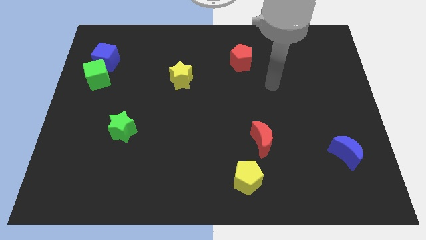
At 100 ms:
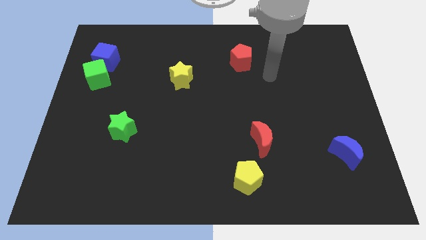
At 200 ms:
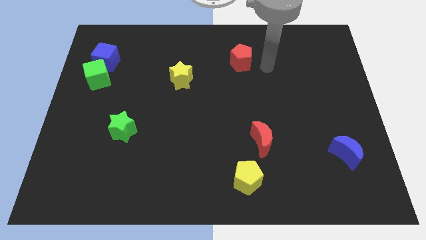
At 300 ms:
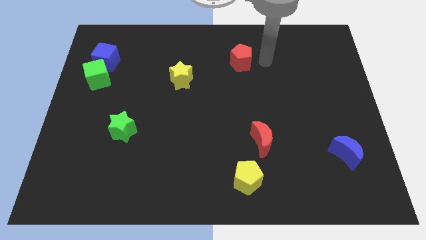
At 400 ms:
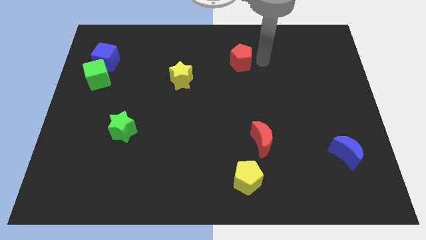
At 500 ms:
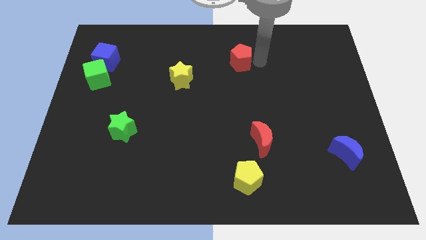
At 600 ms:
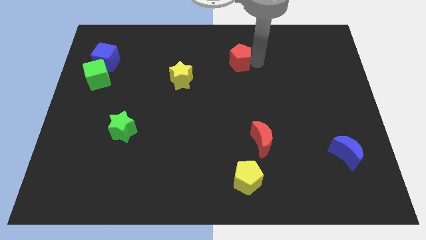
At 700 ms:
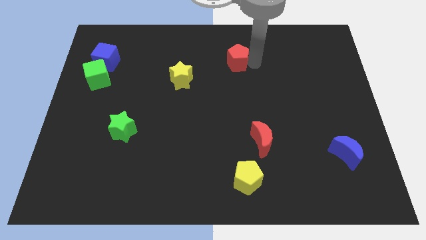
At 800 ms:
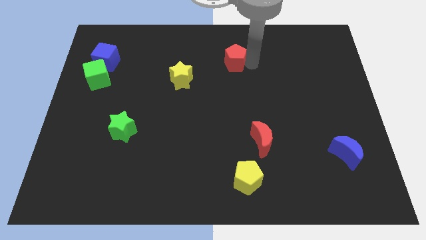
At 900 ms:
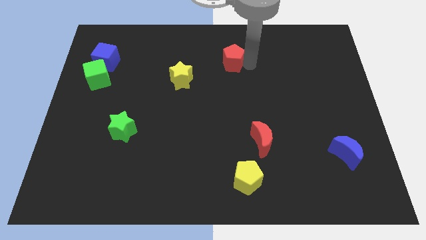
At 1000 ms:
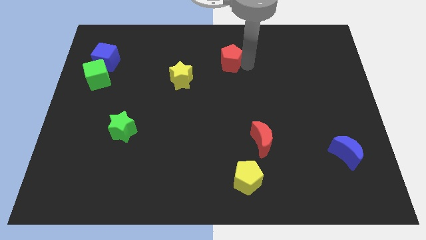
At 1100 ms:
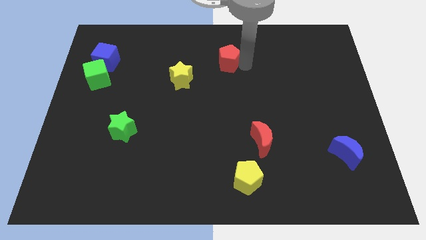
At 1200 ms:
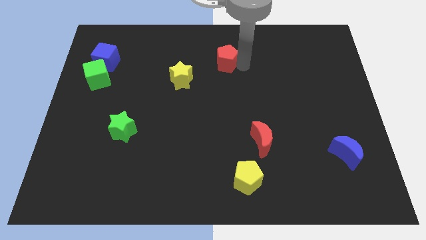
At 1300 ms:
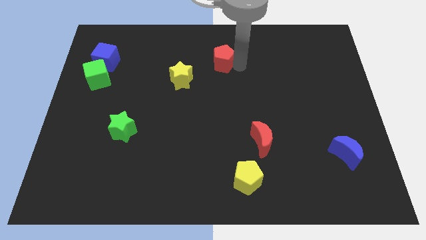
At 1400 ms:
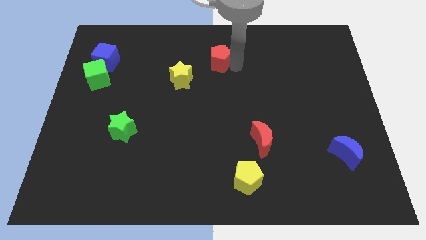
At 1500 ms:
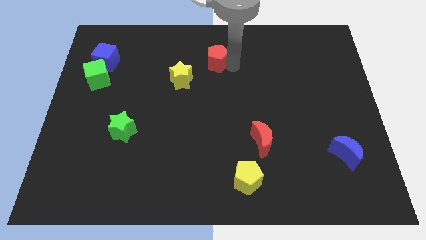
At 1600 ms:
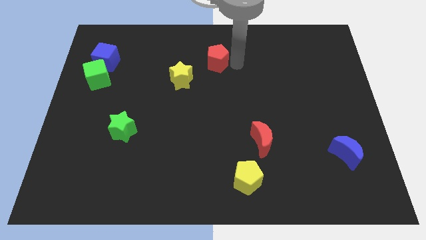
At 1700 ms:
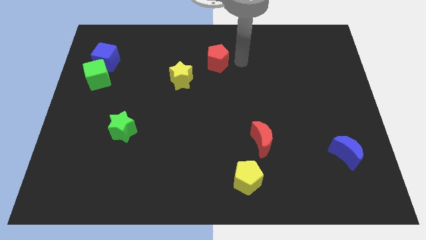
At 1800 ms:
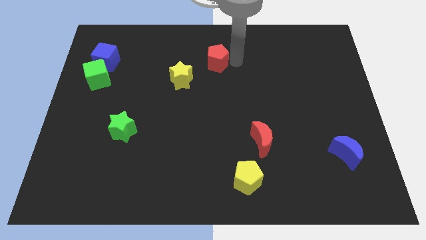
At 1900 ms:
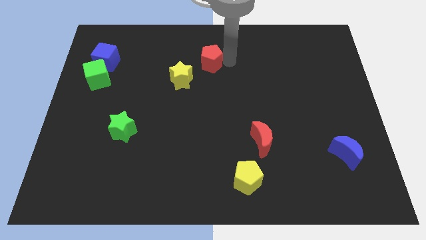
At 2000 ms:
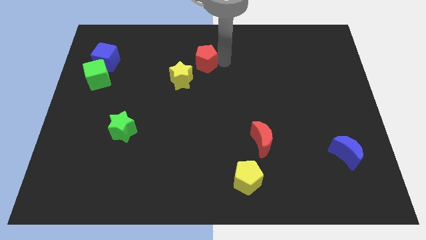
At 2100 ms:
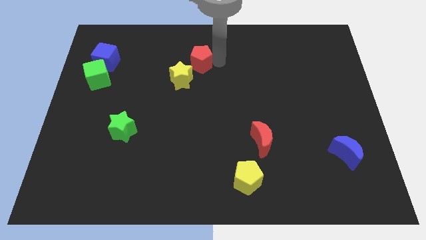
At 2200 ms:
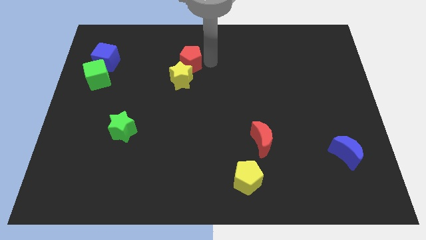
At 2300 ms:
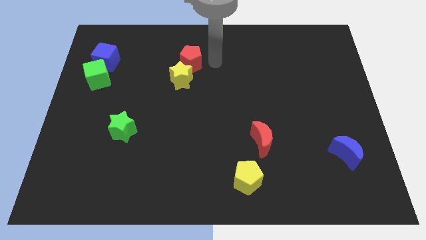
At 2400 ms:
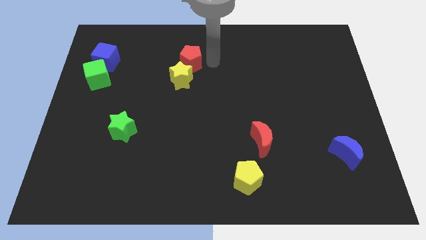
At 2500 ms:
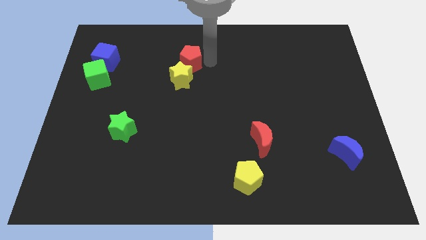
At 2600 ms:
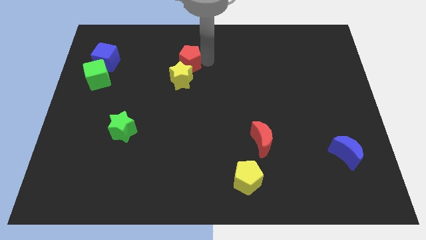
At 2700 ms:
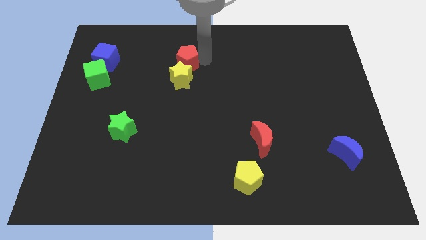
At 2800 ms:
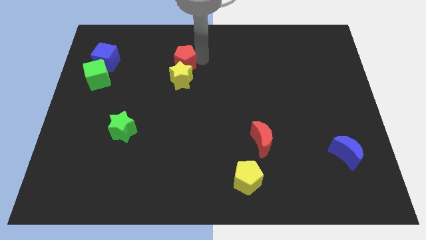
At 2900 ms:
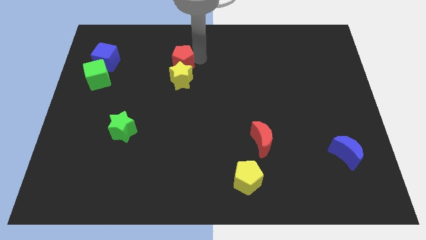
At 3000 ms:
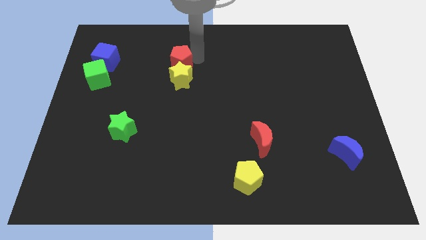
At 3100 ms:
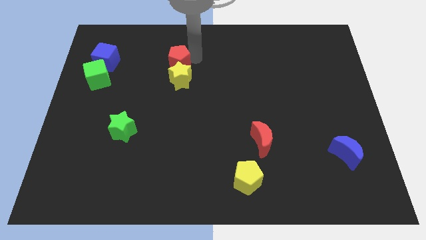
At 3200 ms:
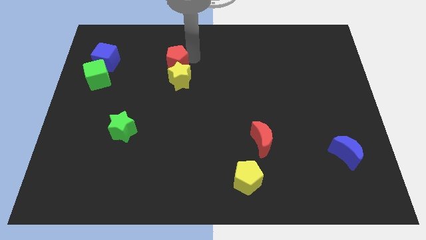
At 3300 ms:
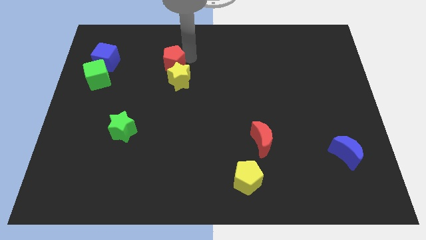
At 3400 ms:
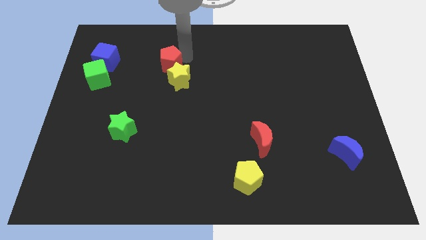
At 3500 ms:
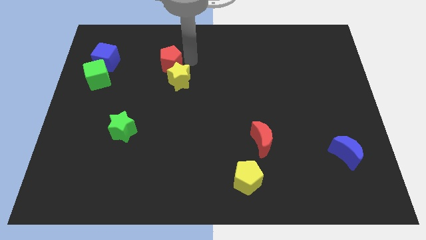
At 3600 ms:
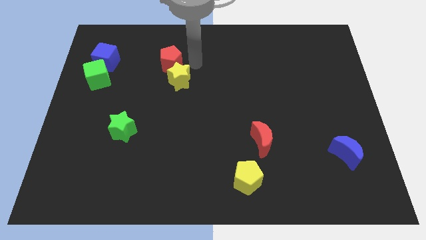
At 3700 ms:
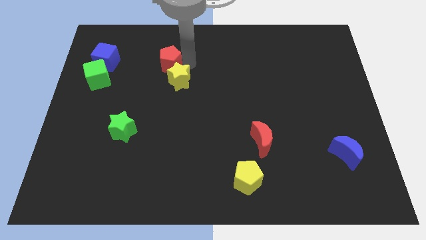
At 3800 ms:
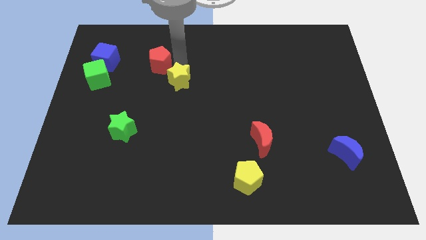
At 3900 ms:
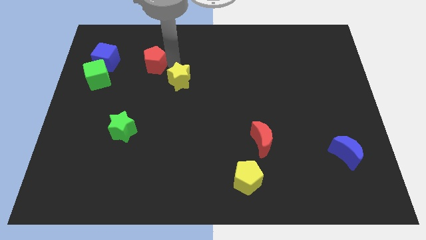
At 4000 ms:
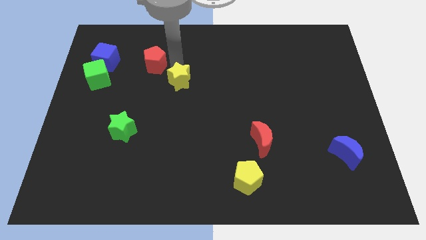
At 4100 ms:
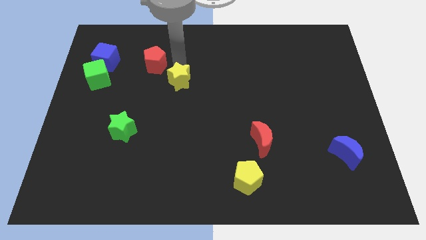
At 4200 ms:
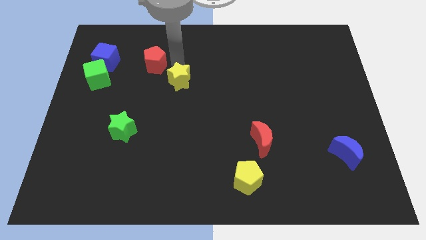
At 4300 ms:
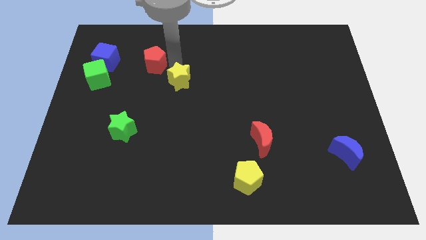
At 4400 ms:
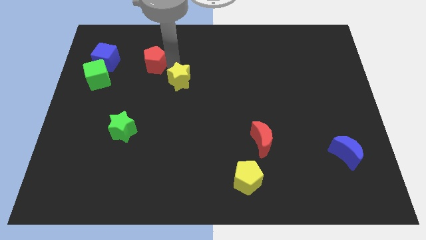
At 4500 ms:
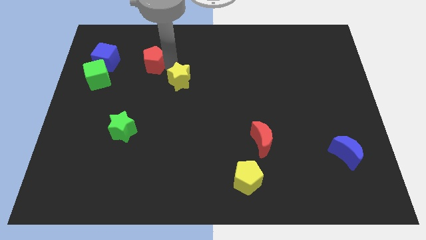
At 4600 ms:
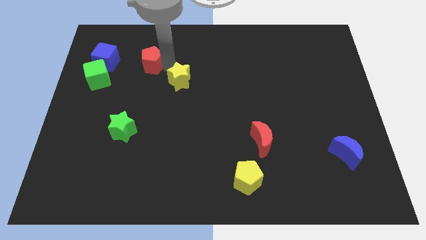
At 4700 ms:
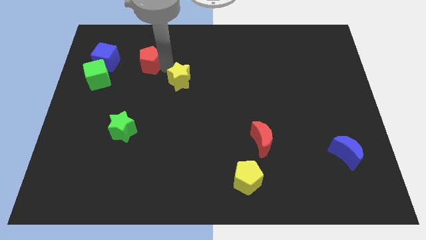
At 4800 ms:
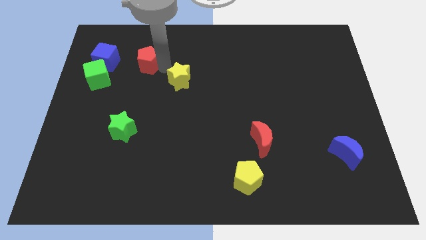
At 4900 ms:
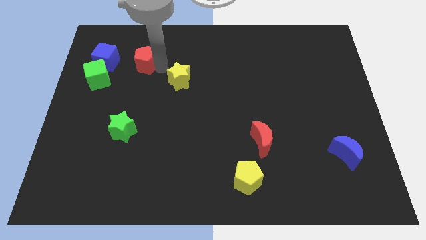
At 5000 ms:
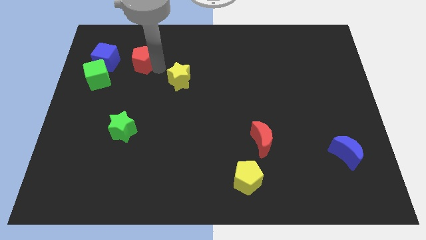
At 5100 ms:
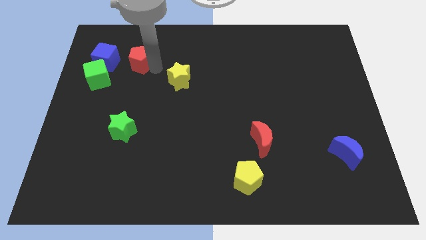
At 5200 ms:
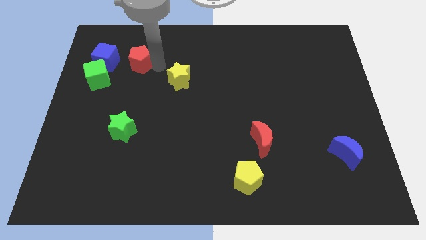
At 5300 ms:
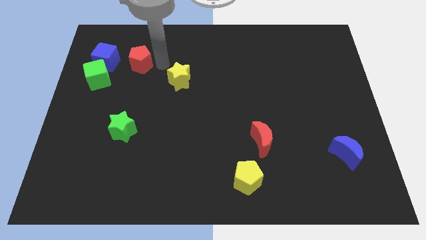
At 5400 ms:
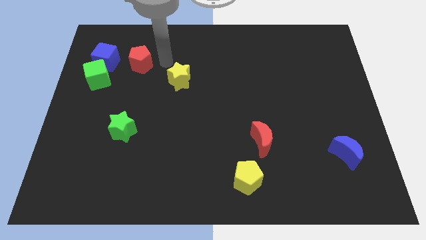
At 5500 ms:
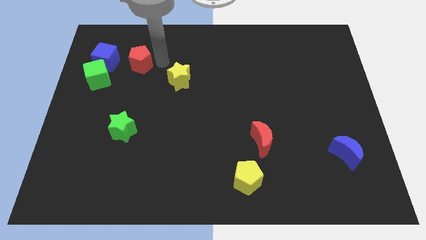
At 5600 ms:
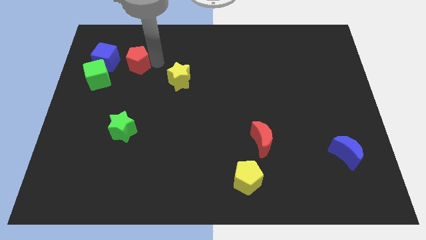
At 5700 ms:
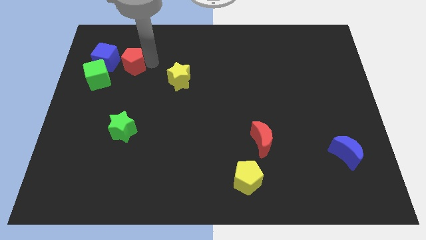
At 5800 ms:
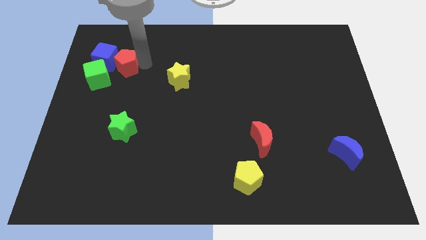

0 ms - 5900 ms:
put the red pentagon close to the blue cube

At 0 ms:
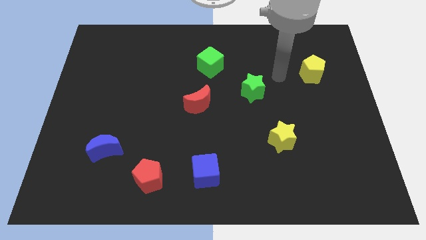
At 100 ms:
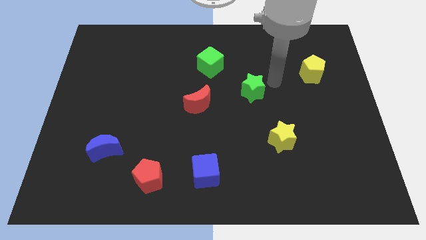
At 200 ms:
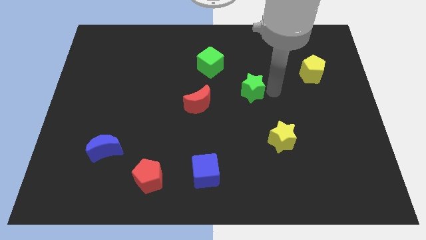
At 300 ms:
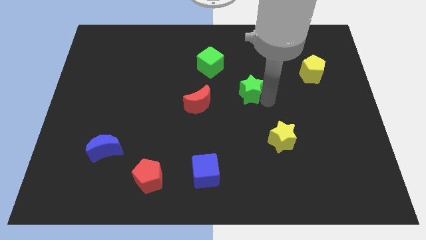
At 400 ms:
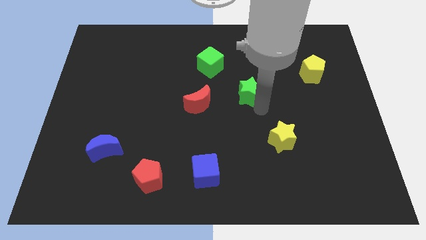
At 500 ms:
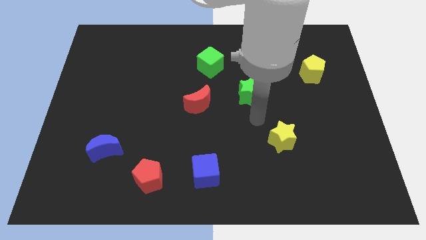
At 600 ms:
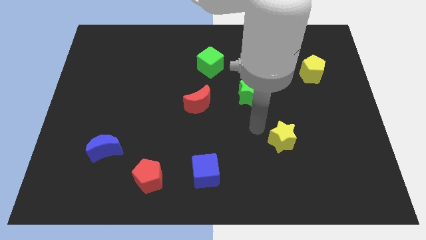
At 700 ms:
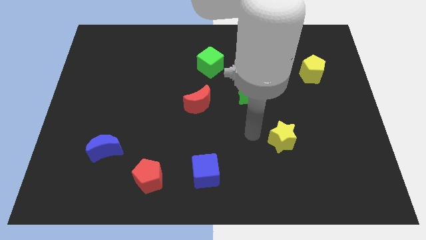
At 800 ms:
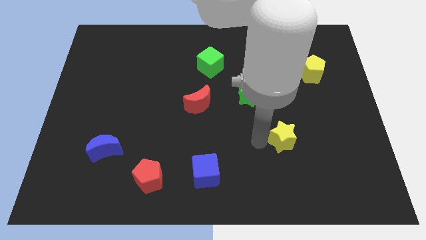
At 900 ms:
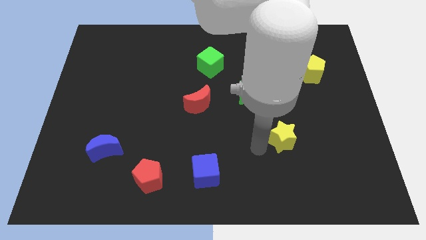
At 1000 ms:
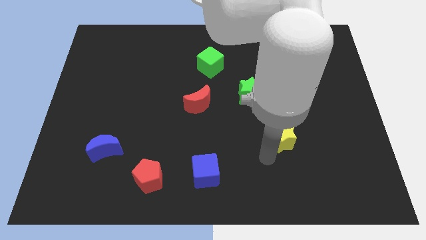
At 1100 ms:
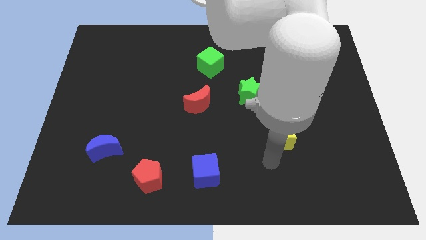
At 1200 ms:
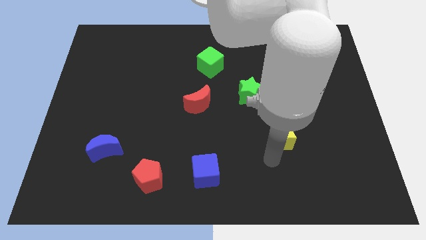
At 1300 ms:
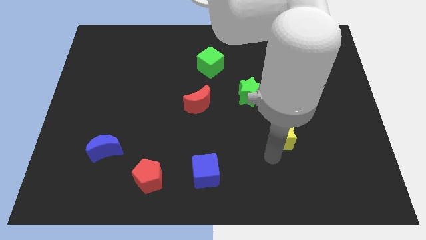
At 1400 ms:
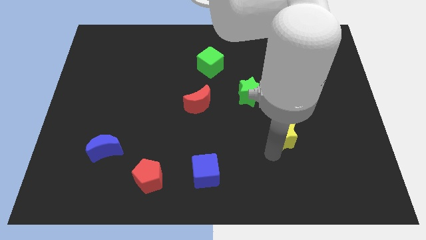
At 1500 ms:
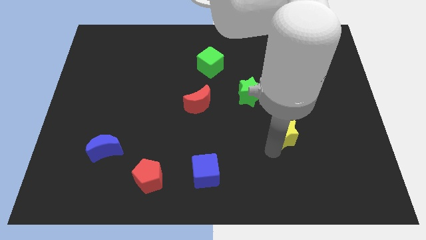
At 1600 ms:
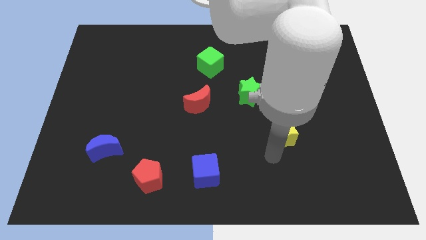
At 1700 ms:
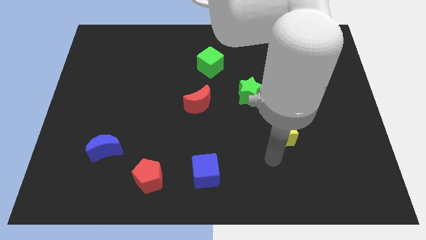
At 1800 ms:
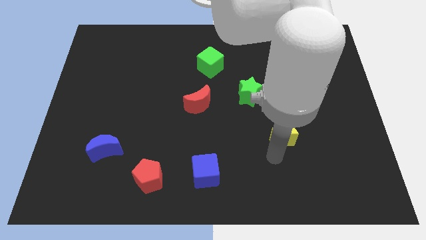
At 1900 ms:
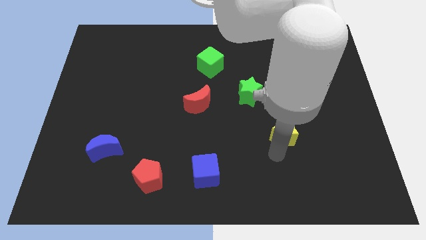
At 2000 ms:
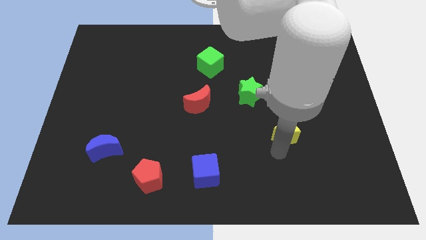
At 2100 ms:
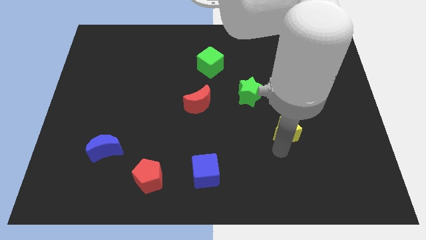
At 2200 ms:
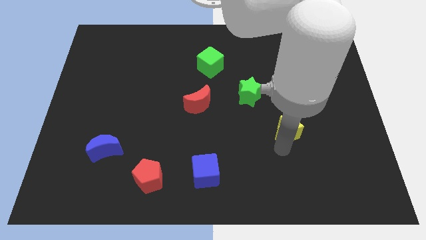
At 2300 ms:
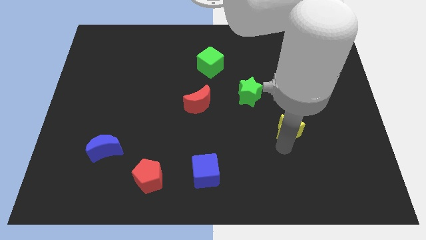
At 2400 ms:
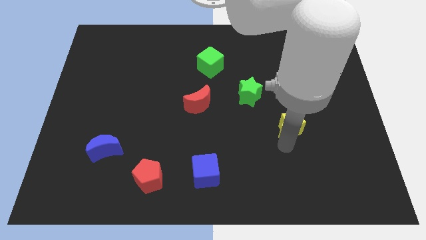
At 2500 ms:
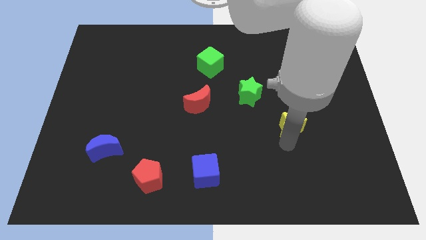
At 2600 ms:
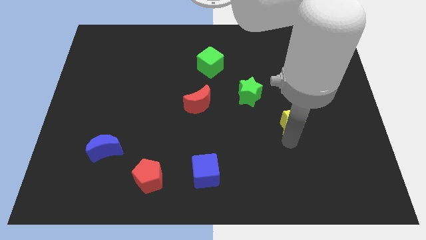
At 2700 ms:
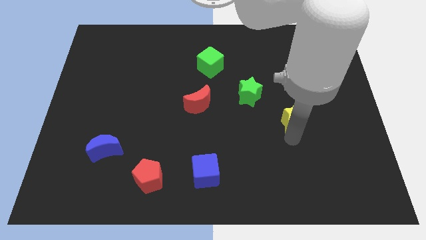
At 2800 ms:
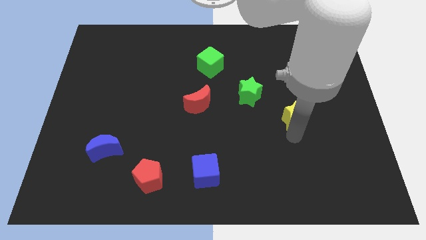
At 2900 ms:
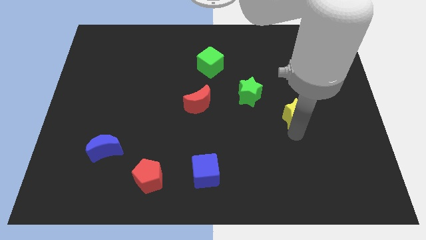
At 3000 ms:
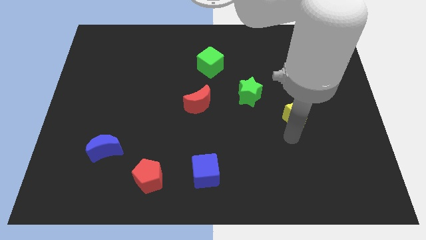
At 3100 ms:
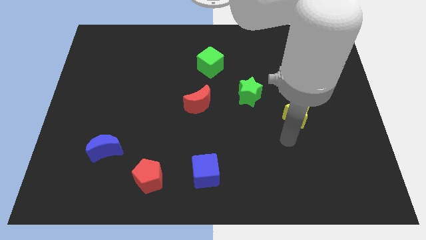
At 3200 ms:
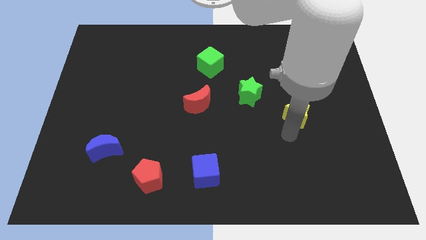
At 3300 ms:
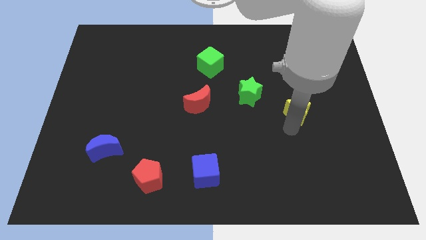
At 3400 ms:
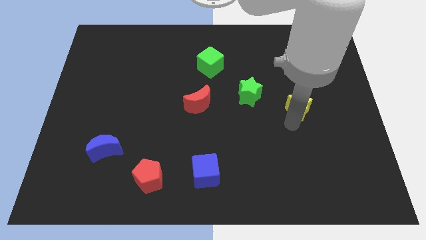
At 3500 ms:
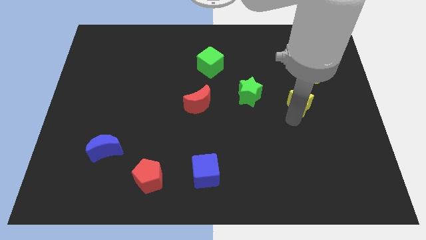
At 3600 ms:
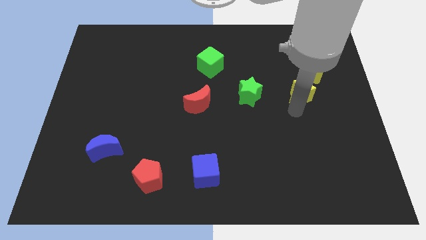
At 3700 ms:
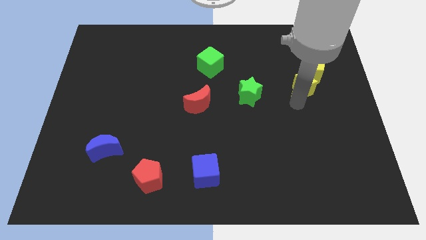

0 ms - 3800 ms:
push the yellow star next to the yellow pentagon
